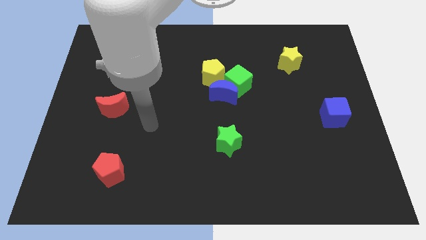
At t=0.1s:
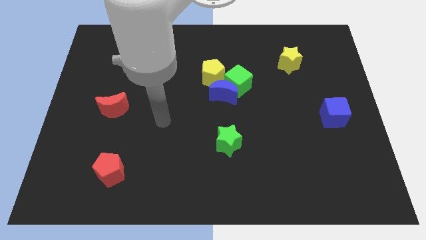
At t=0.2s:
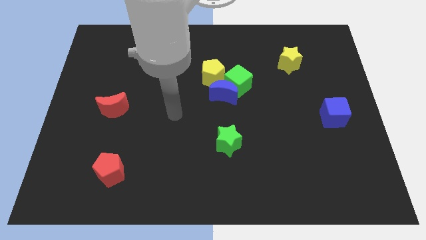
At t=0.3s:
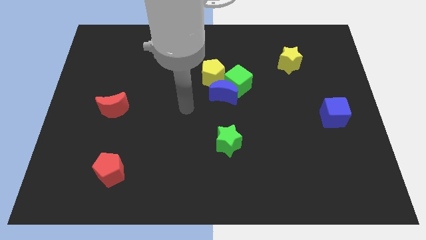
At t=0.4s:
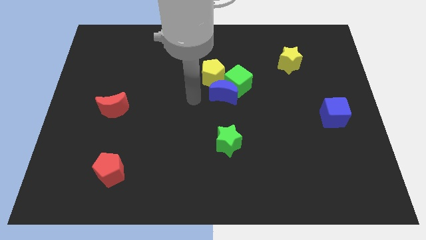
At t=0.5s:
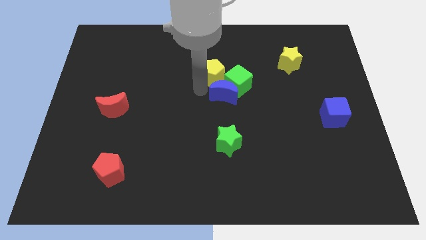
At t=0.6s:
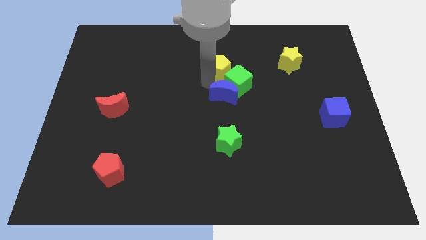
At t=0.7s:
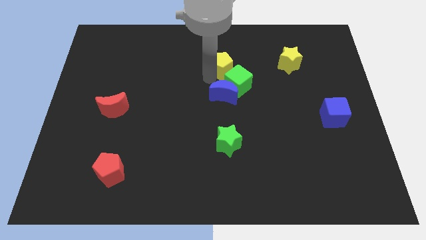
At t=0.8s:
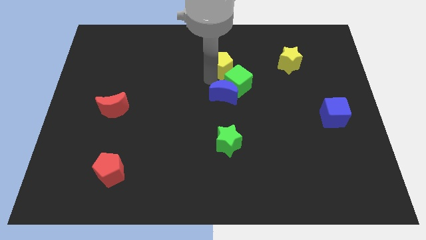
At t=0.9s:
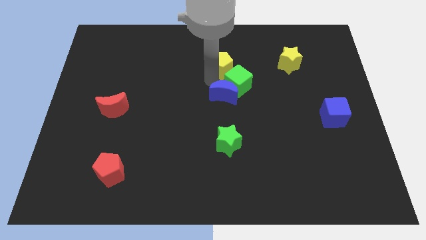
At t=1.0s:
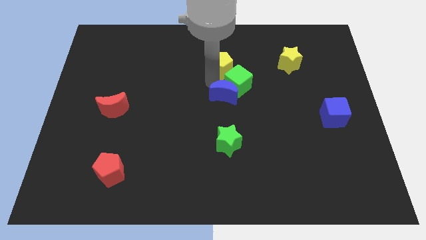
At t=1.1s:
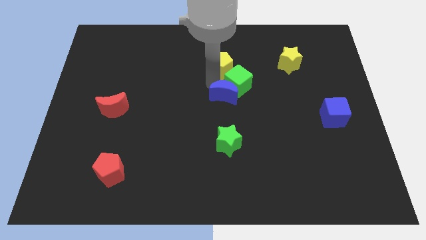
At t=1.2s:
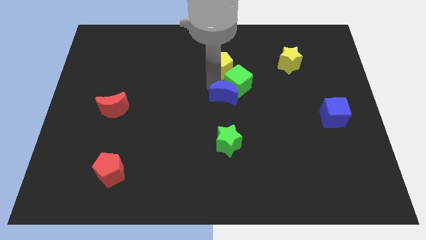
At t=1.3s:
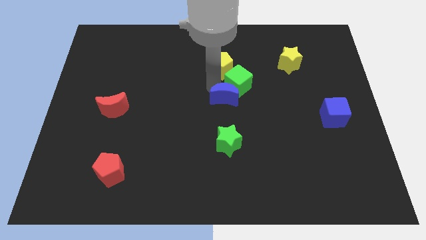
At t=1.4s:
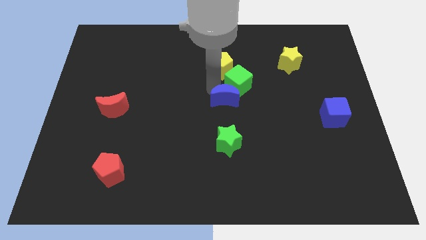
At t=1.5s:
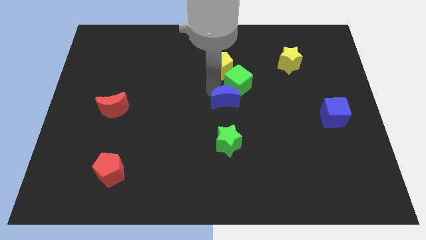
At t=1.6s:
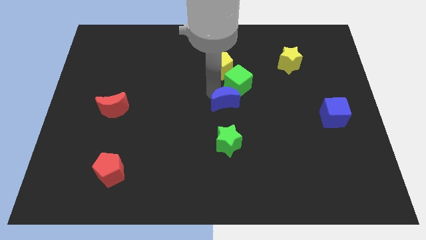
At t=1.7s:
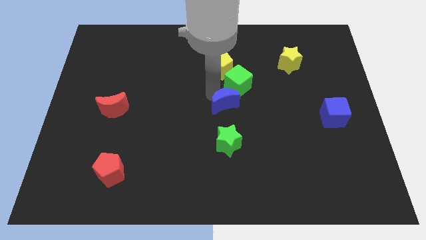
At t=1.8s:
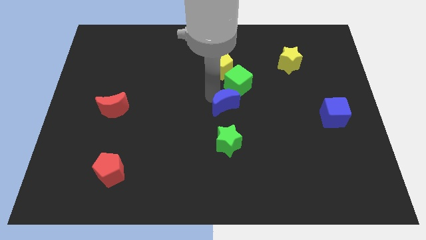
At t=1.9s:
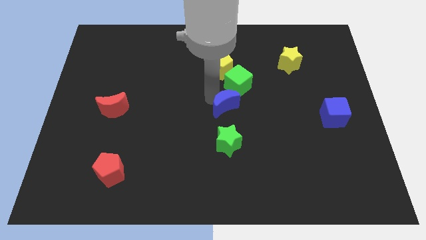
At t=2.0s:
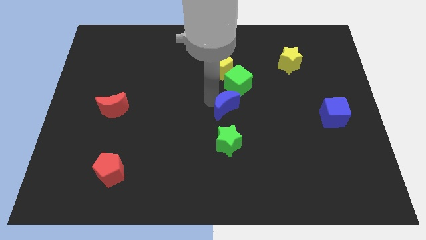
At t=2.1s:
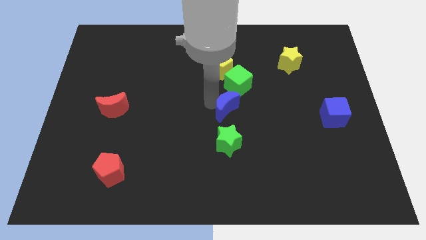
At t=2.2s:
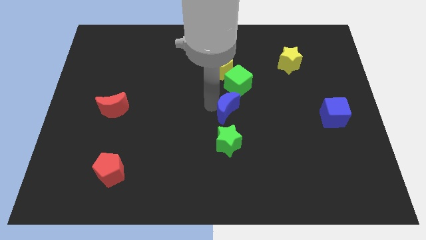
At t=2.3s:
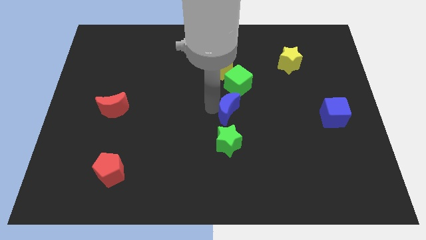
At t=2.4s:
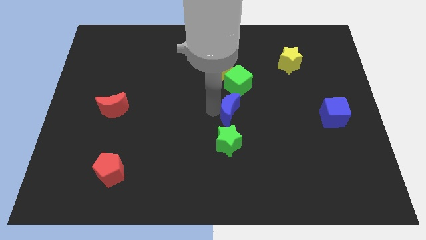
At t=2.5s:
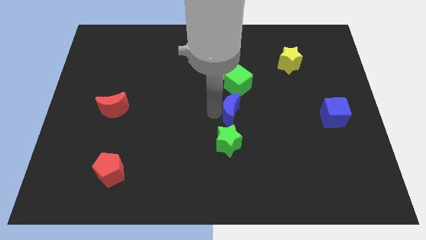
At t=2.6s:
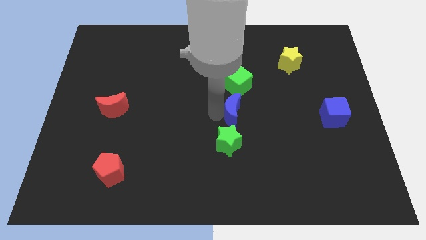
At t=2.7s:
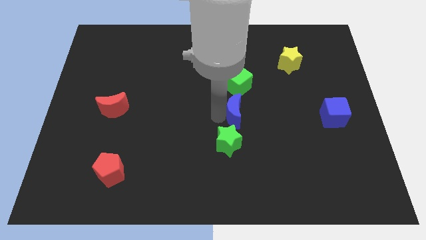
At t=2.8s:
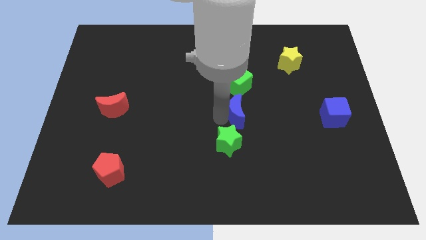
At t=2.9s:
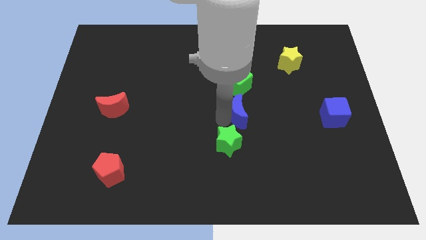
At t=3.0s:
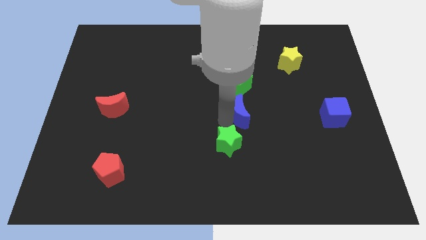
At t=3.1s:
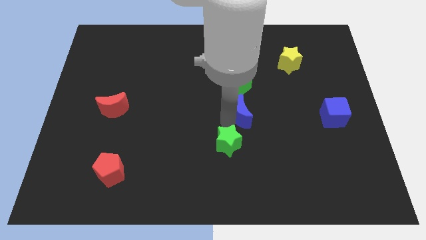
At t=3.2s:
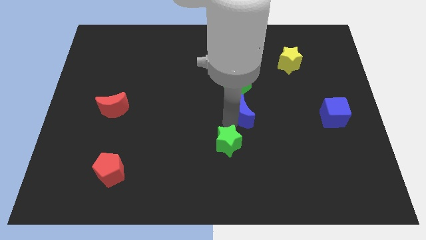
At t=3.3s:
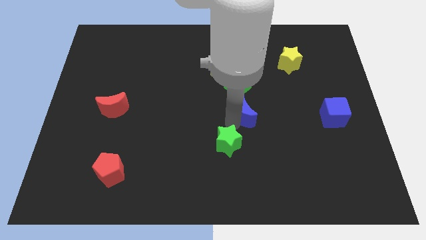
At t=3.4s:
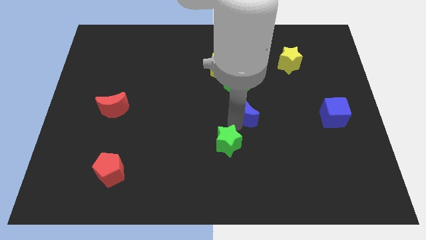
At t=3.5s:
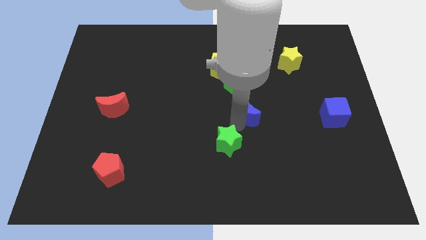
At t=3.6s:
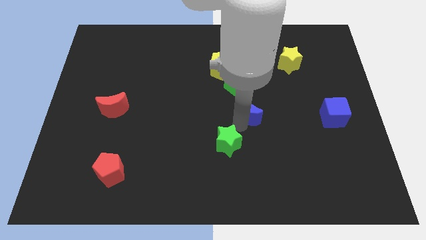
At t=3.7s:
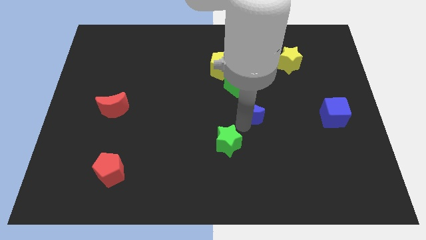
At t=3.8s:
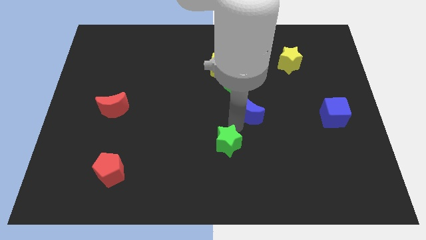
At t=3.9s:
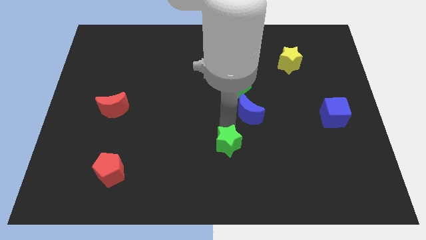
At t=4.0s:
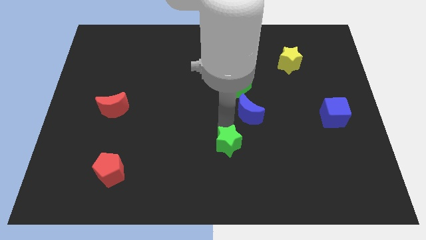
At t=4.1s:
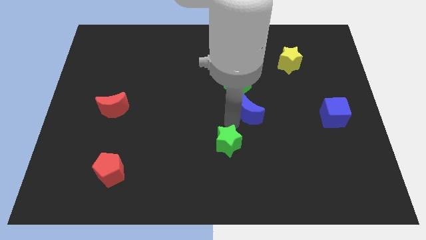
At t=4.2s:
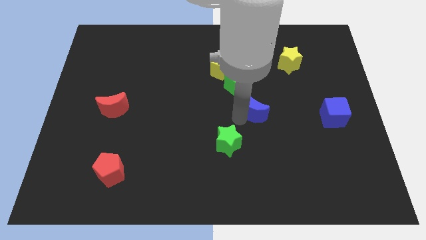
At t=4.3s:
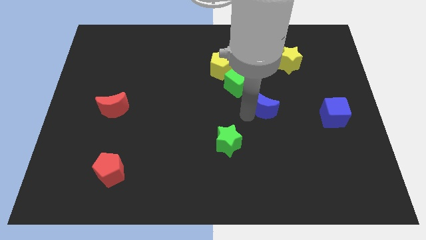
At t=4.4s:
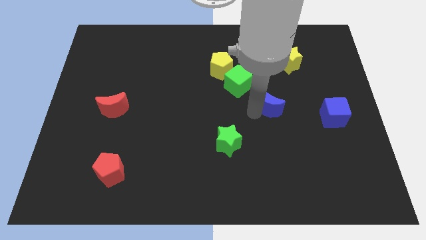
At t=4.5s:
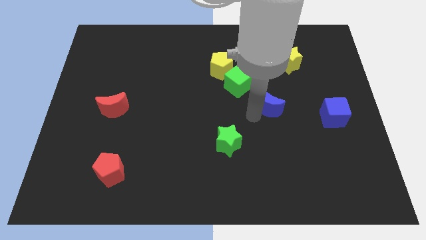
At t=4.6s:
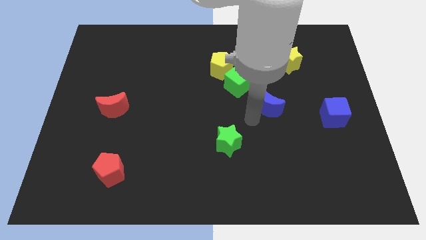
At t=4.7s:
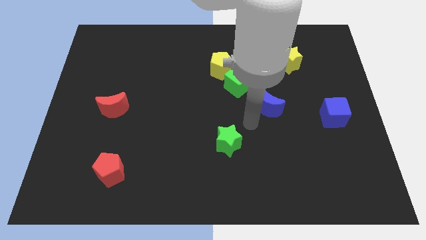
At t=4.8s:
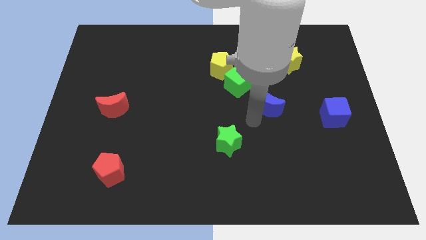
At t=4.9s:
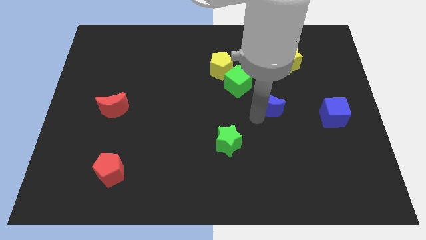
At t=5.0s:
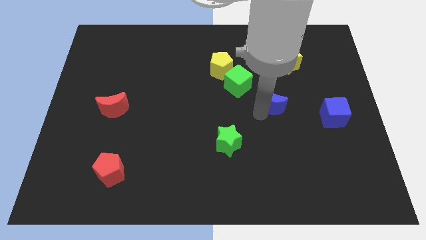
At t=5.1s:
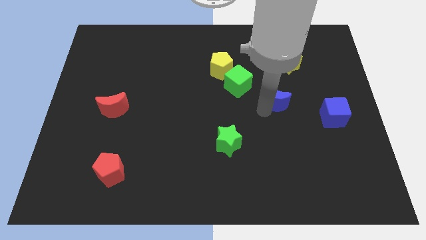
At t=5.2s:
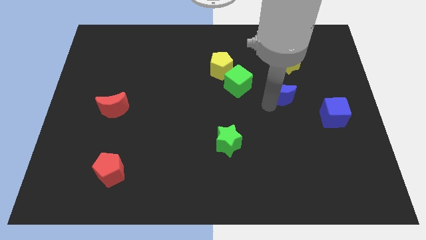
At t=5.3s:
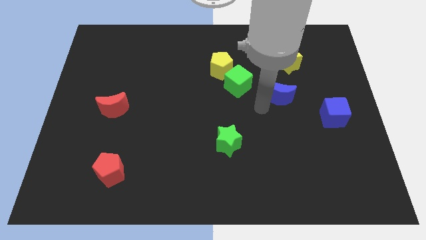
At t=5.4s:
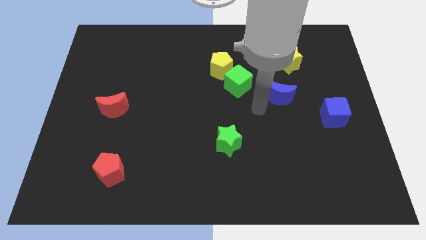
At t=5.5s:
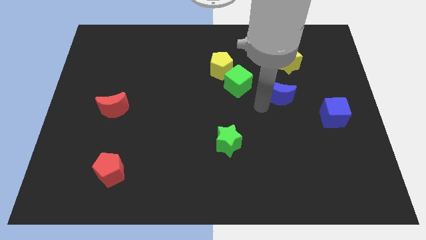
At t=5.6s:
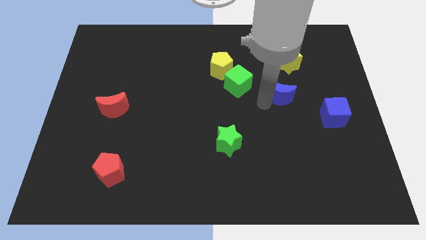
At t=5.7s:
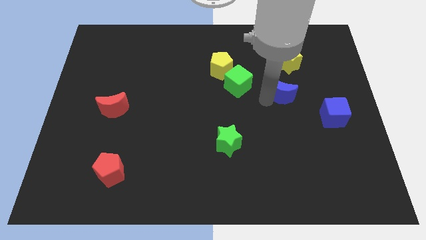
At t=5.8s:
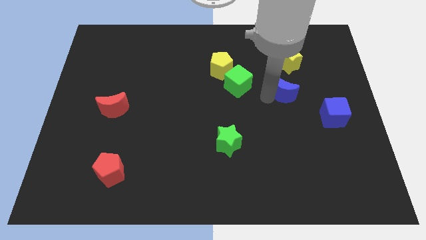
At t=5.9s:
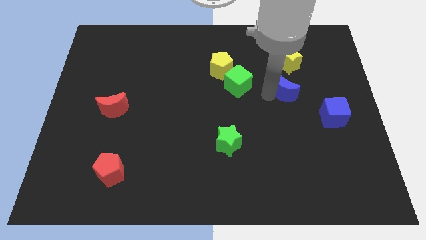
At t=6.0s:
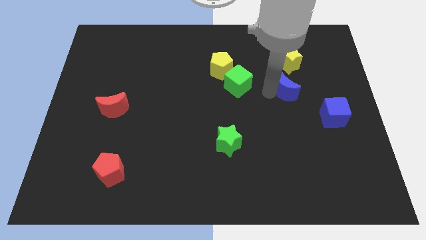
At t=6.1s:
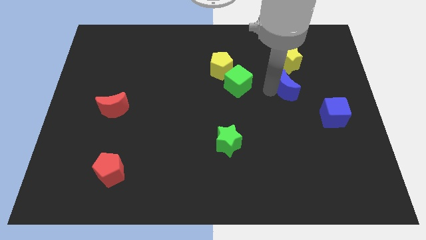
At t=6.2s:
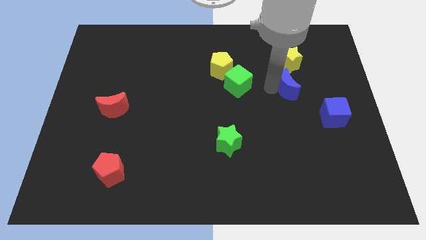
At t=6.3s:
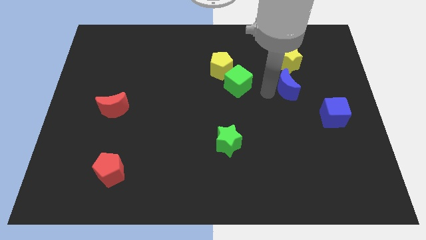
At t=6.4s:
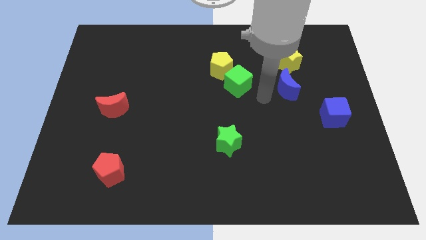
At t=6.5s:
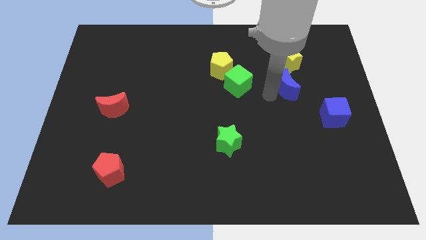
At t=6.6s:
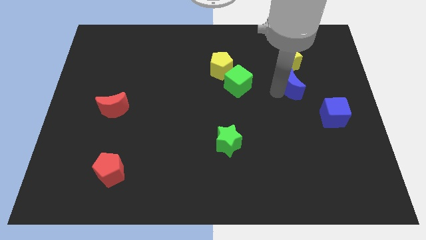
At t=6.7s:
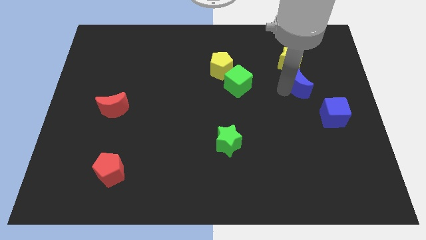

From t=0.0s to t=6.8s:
push the blue moon to the bottom right of the yellow star

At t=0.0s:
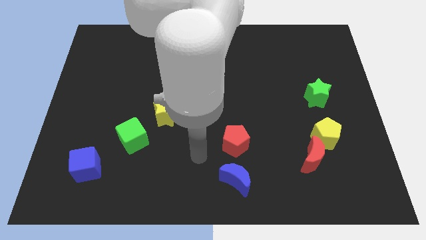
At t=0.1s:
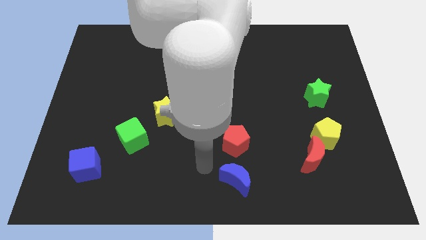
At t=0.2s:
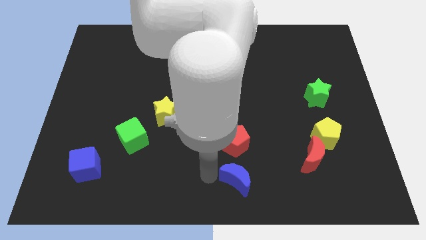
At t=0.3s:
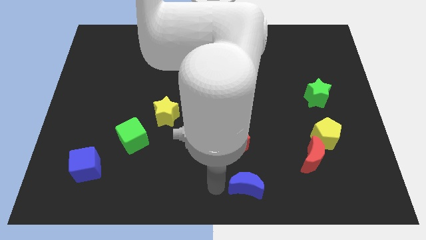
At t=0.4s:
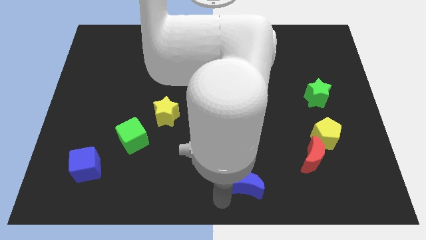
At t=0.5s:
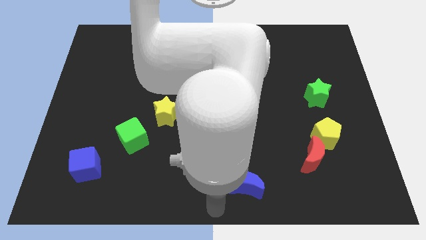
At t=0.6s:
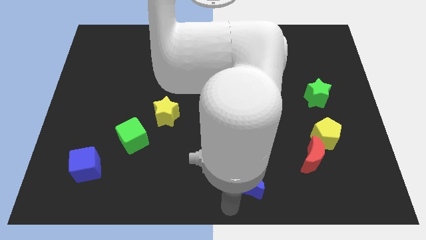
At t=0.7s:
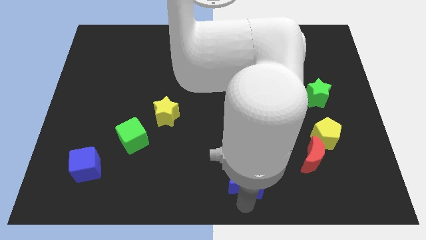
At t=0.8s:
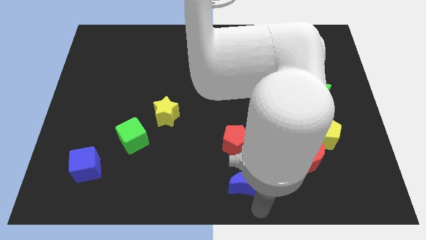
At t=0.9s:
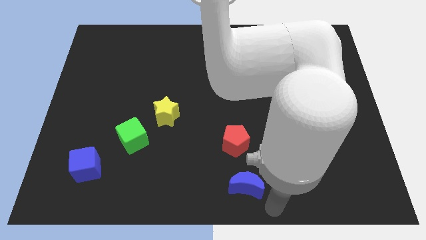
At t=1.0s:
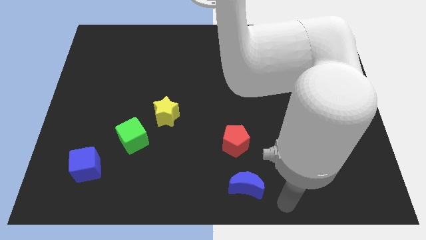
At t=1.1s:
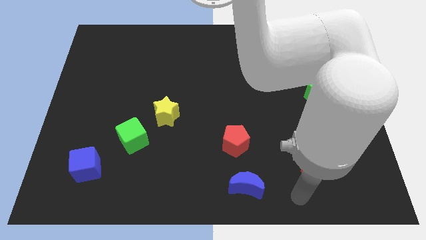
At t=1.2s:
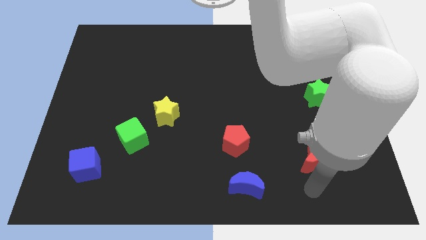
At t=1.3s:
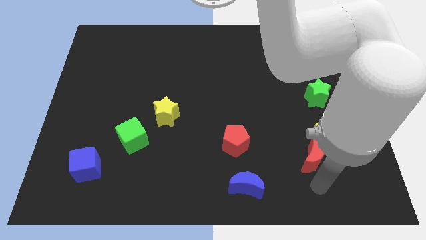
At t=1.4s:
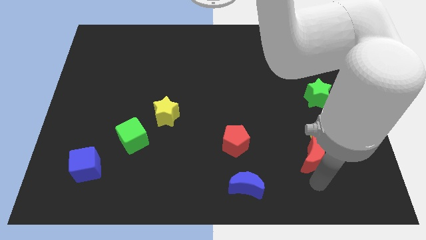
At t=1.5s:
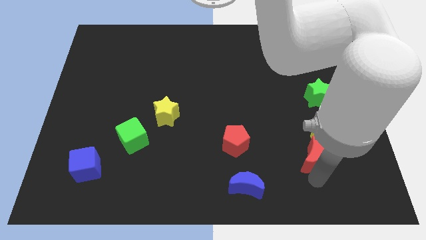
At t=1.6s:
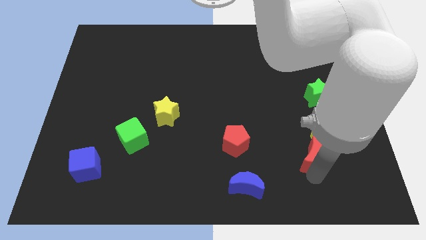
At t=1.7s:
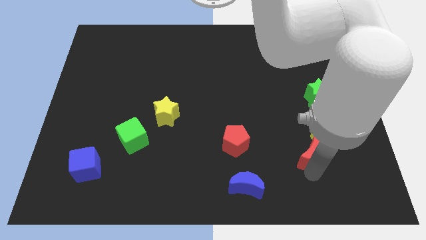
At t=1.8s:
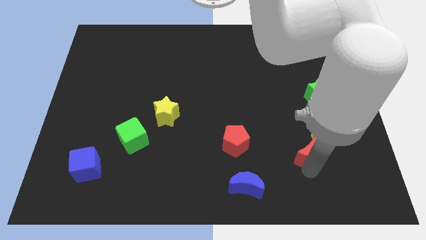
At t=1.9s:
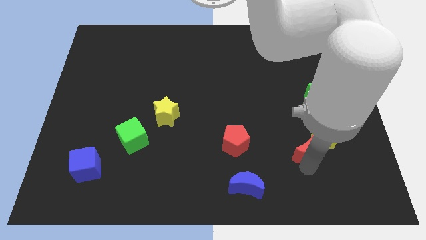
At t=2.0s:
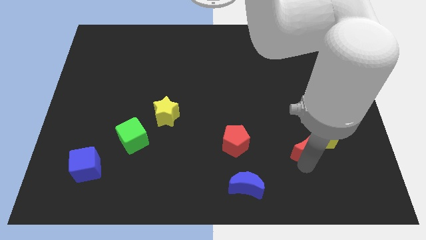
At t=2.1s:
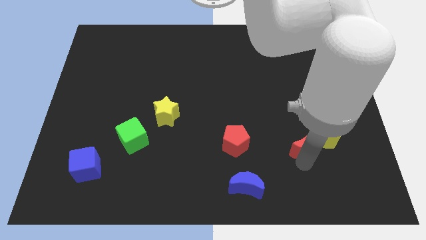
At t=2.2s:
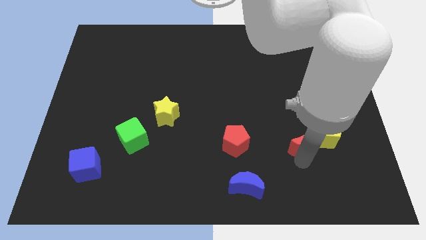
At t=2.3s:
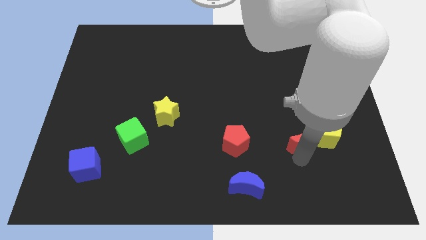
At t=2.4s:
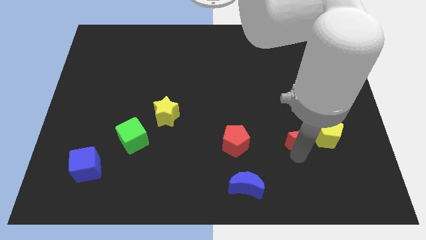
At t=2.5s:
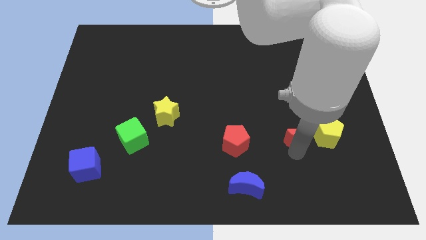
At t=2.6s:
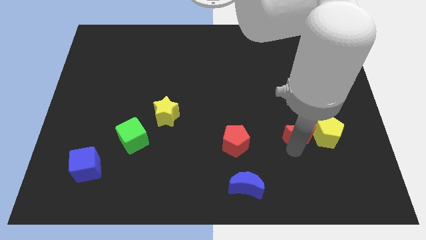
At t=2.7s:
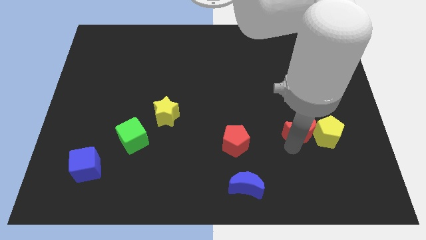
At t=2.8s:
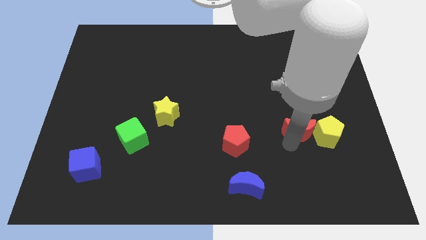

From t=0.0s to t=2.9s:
push the red moon to the bottom left of the green star
